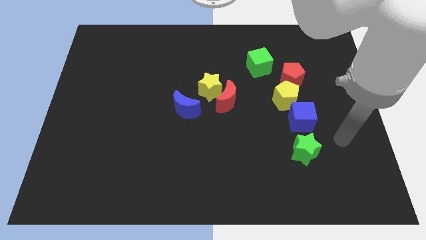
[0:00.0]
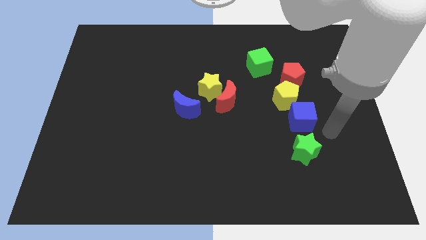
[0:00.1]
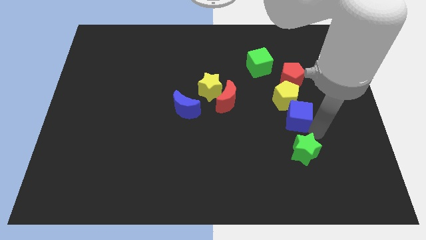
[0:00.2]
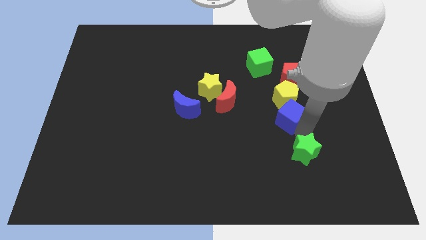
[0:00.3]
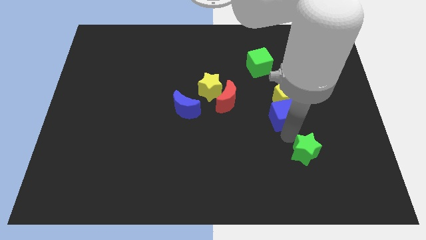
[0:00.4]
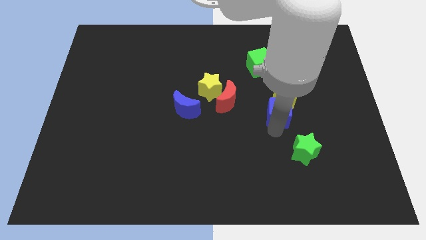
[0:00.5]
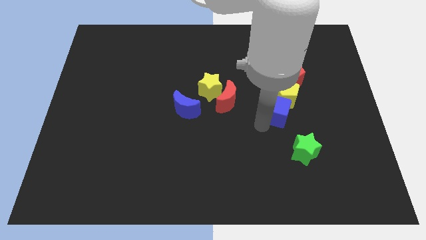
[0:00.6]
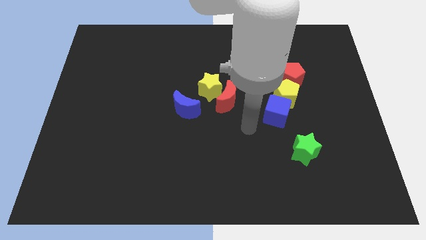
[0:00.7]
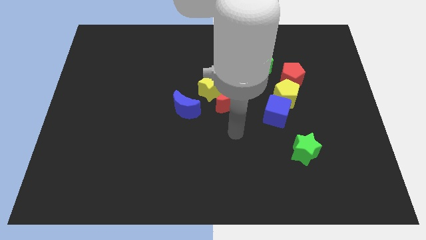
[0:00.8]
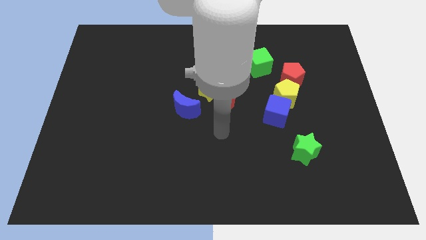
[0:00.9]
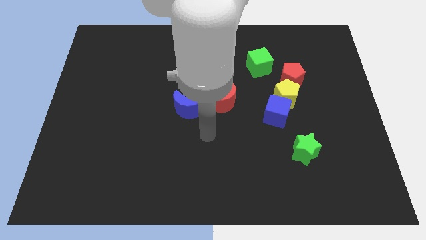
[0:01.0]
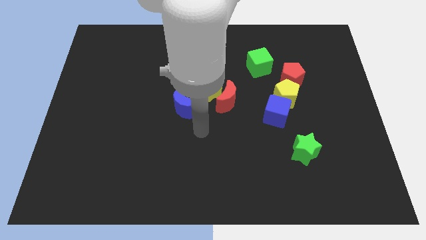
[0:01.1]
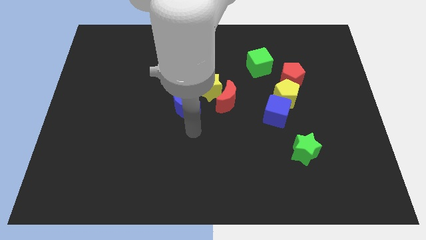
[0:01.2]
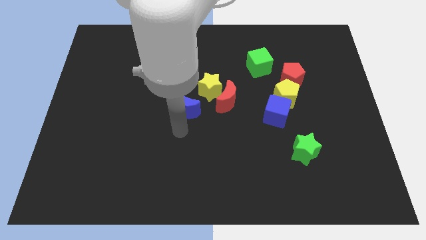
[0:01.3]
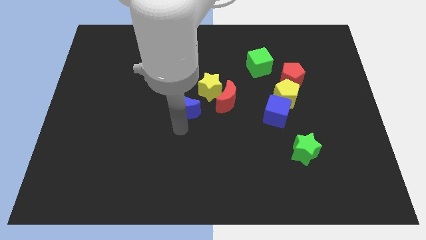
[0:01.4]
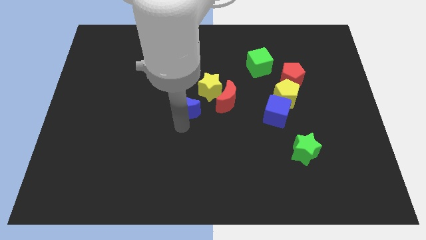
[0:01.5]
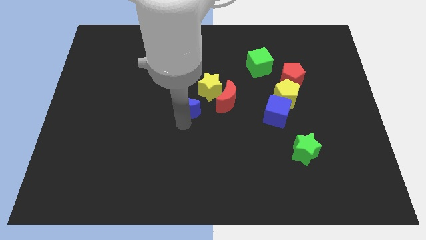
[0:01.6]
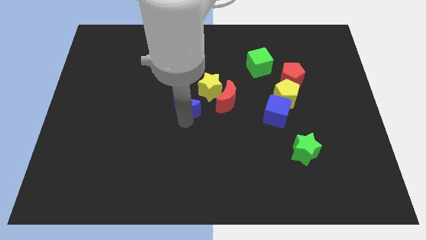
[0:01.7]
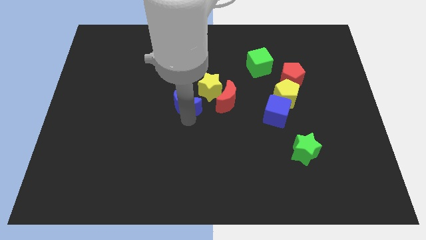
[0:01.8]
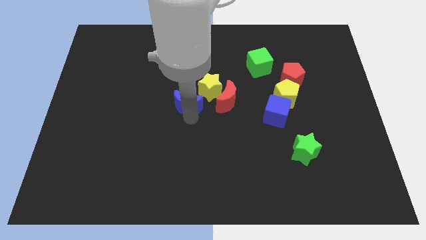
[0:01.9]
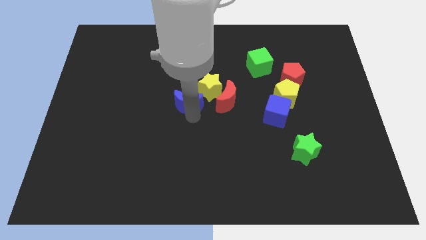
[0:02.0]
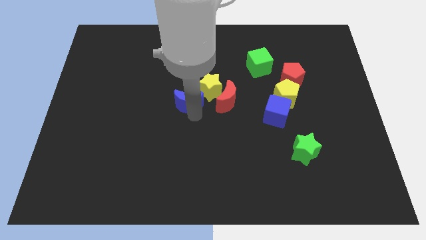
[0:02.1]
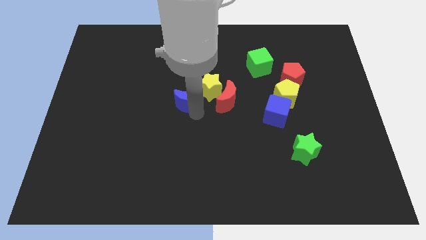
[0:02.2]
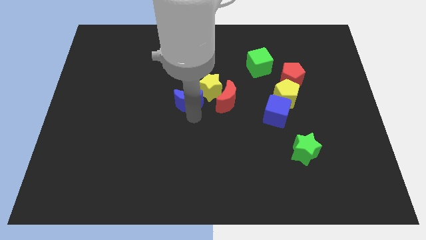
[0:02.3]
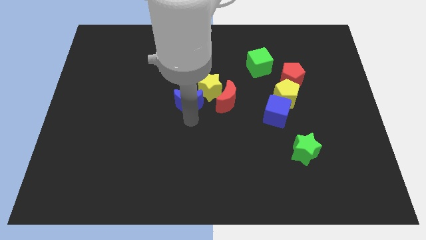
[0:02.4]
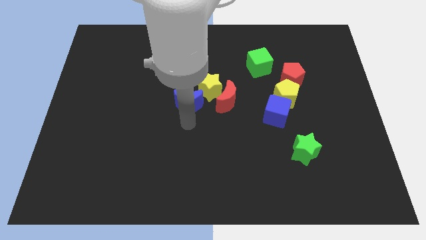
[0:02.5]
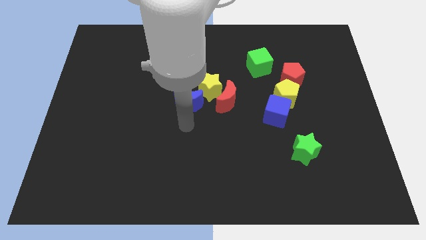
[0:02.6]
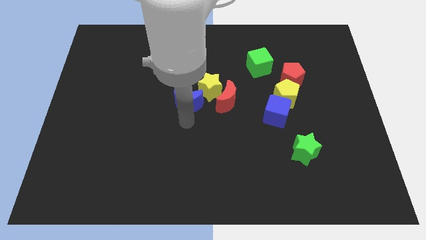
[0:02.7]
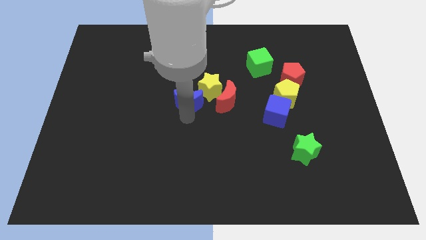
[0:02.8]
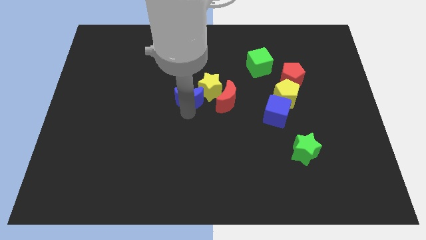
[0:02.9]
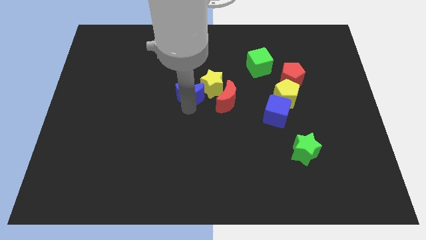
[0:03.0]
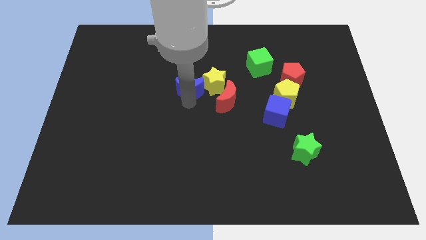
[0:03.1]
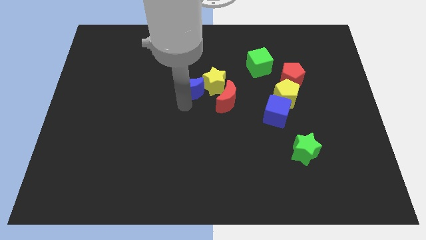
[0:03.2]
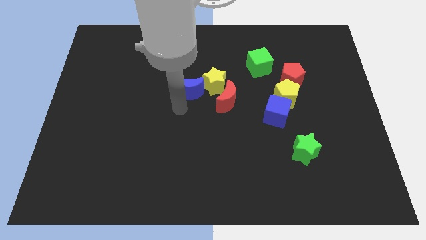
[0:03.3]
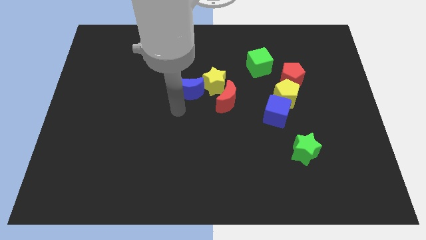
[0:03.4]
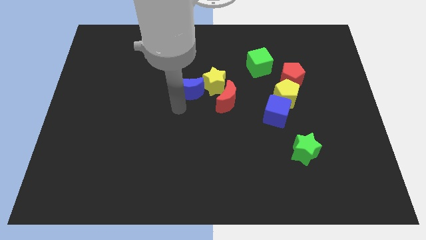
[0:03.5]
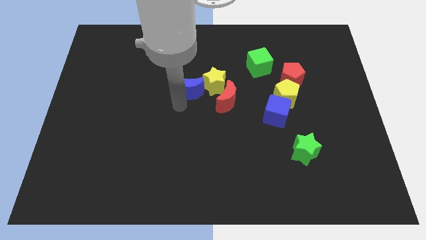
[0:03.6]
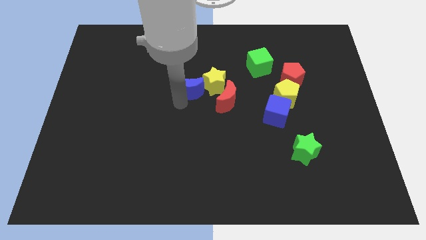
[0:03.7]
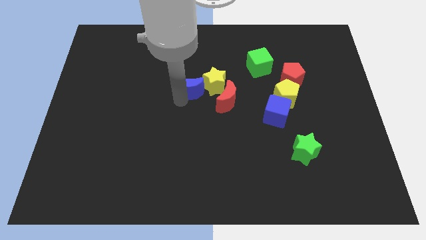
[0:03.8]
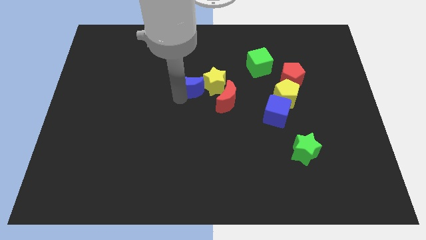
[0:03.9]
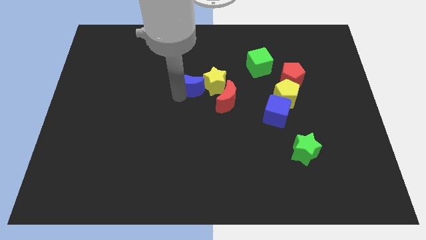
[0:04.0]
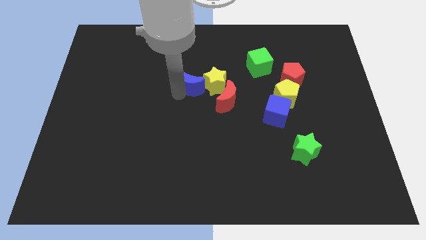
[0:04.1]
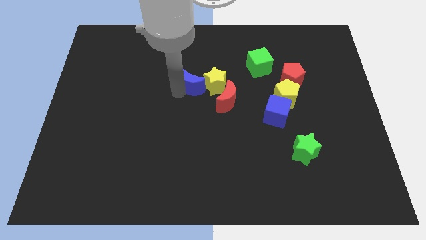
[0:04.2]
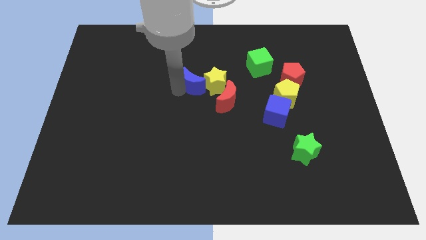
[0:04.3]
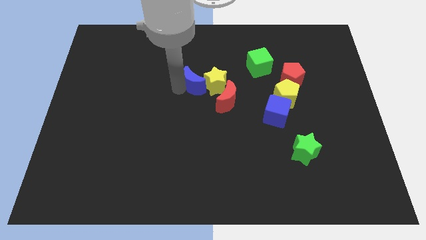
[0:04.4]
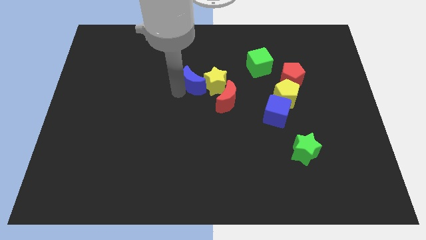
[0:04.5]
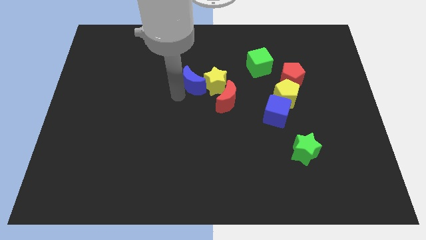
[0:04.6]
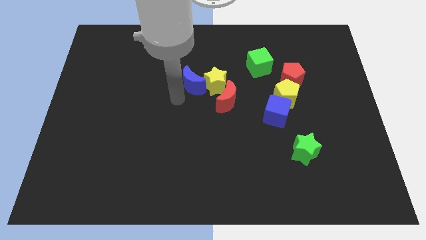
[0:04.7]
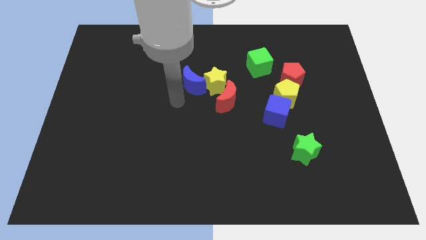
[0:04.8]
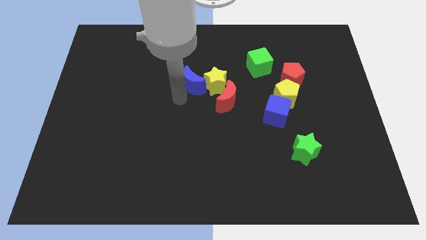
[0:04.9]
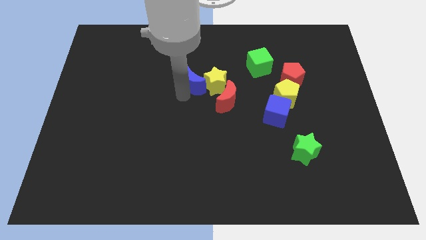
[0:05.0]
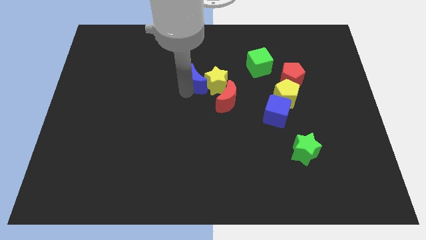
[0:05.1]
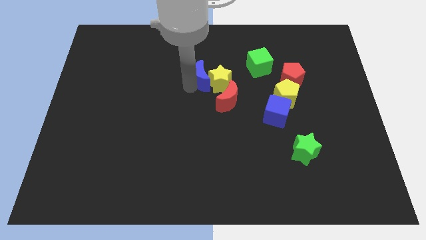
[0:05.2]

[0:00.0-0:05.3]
slide the blue moon a little up and right diagonally

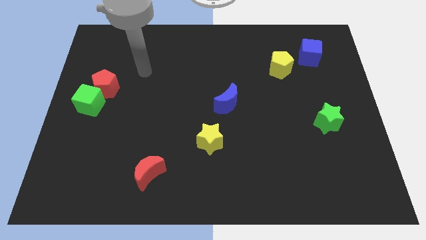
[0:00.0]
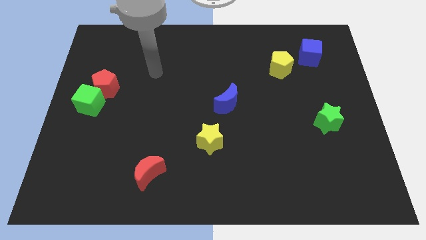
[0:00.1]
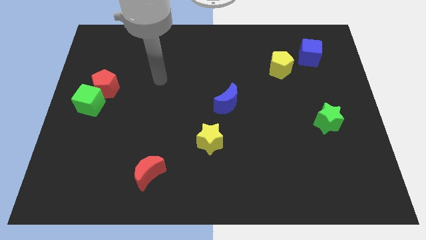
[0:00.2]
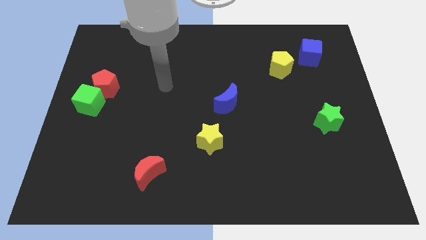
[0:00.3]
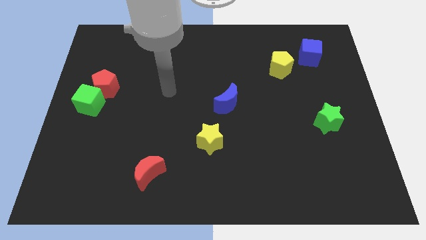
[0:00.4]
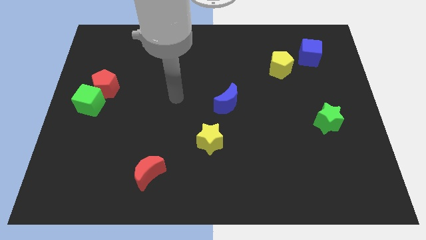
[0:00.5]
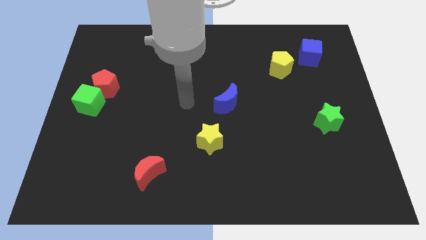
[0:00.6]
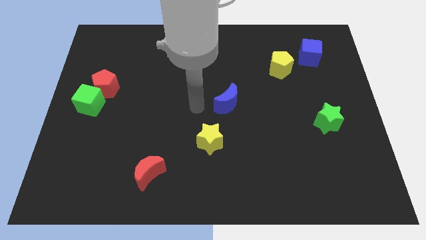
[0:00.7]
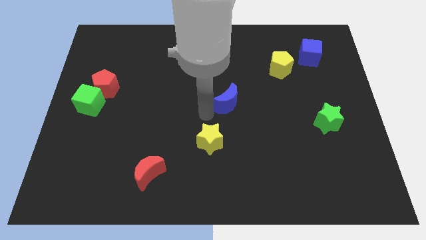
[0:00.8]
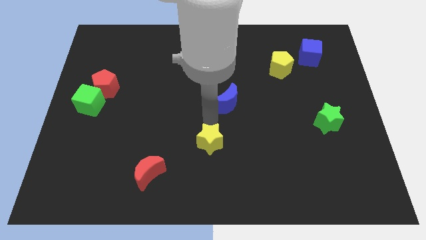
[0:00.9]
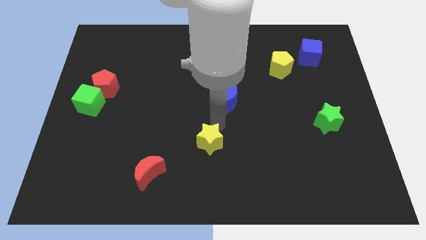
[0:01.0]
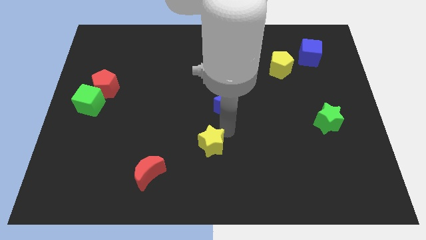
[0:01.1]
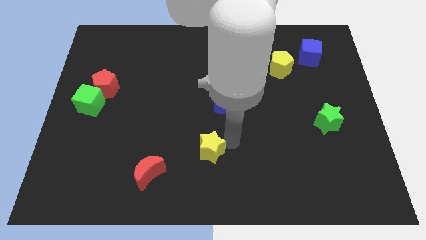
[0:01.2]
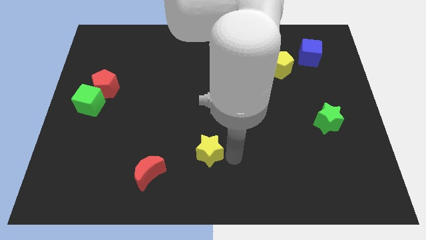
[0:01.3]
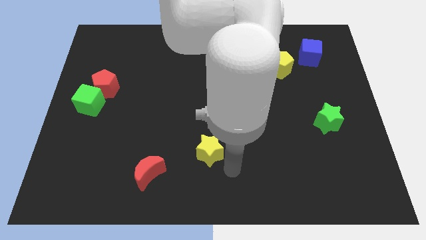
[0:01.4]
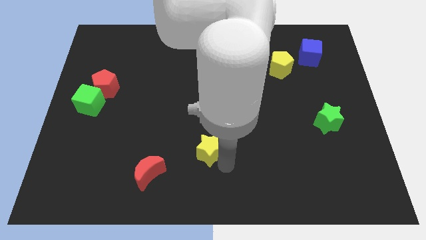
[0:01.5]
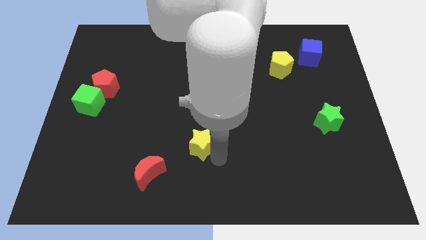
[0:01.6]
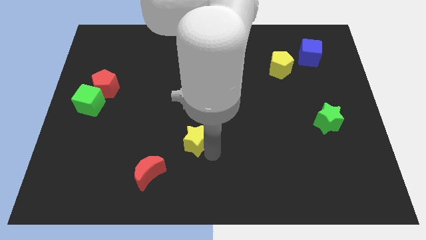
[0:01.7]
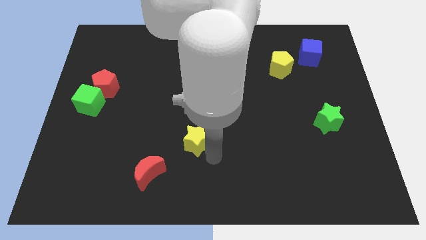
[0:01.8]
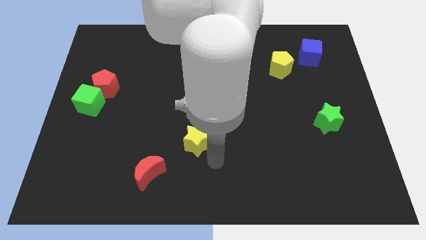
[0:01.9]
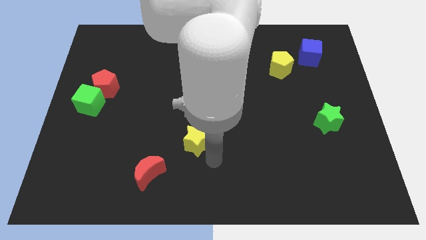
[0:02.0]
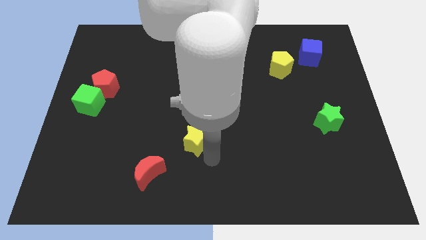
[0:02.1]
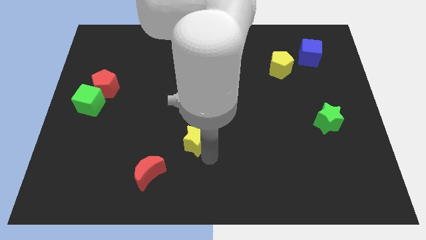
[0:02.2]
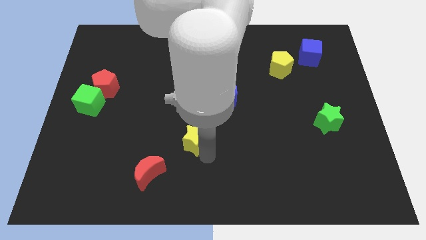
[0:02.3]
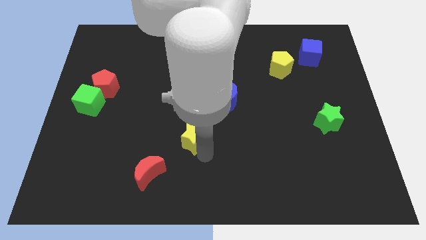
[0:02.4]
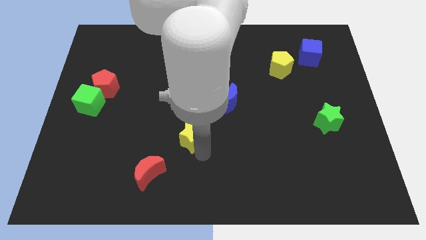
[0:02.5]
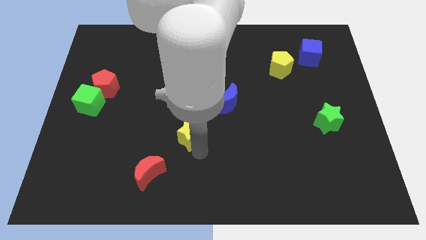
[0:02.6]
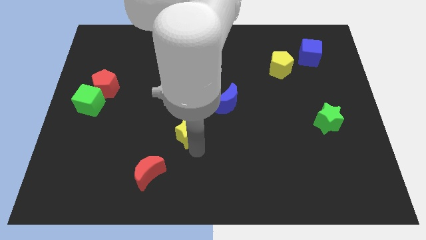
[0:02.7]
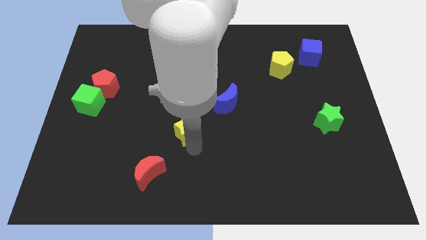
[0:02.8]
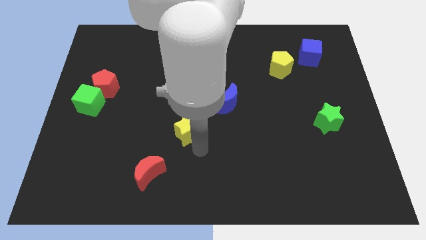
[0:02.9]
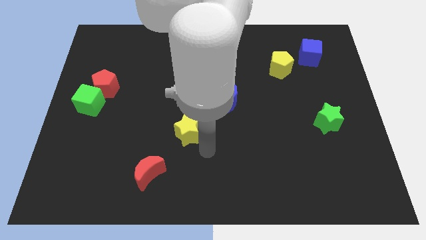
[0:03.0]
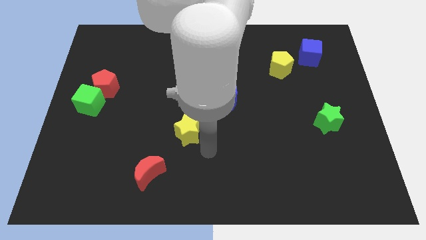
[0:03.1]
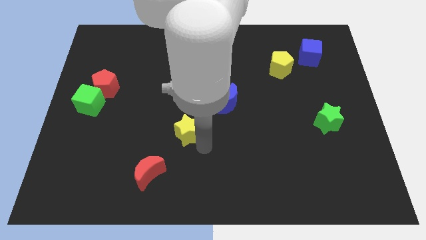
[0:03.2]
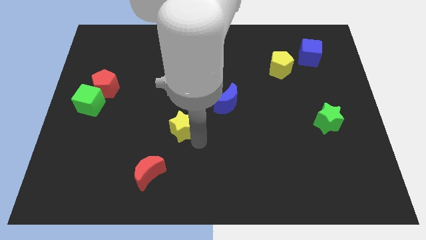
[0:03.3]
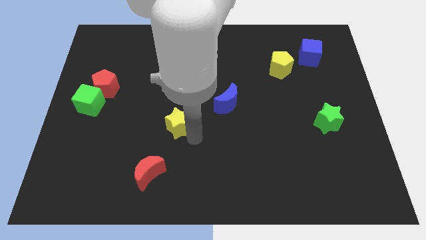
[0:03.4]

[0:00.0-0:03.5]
slide the yellow star upwards and to the left diagonally slightly
